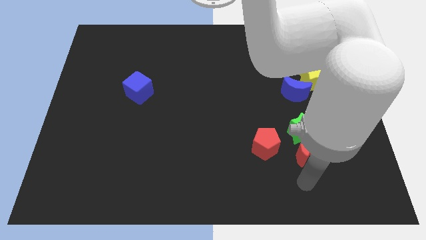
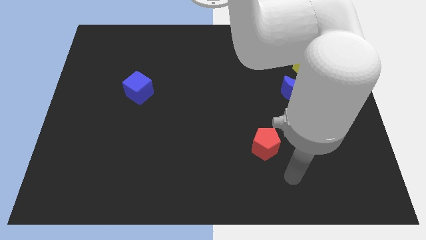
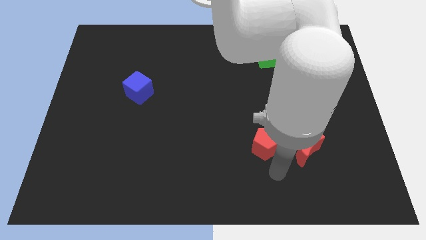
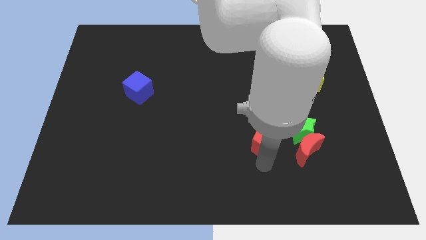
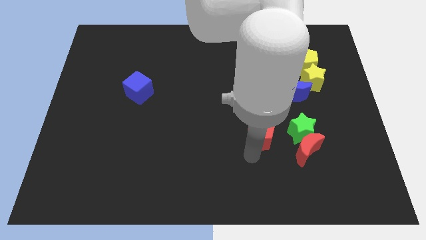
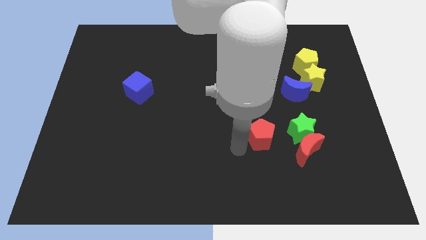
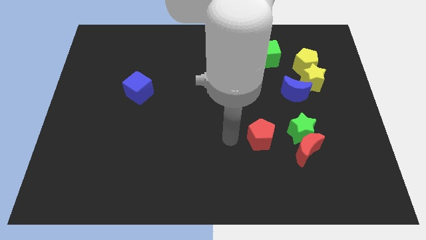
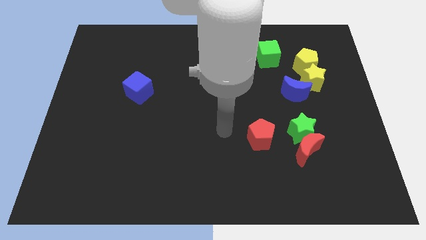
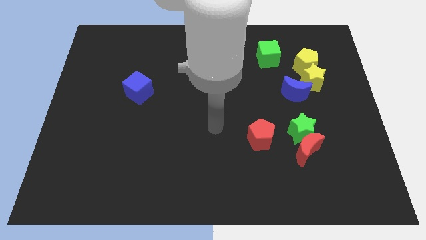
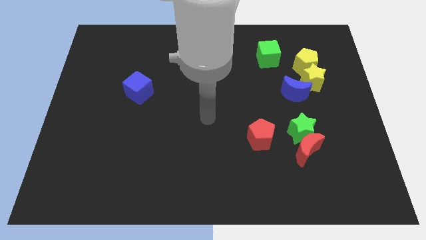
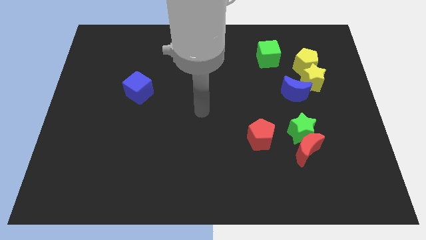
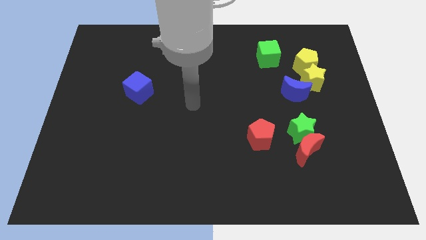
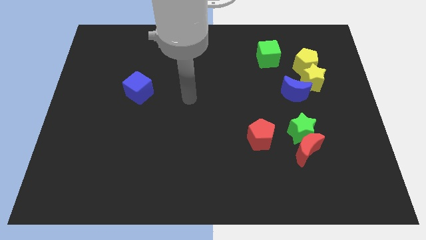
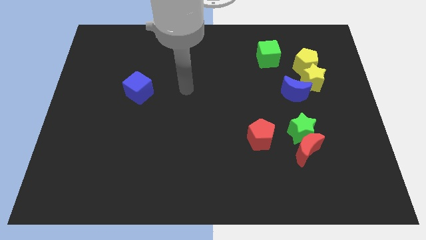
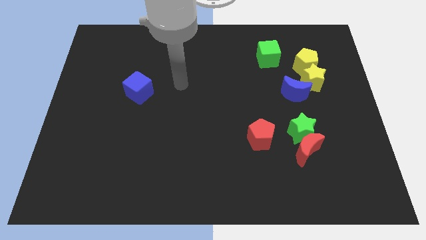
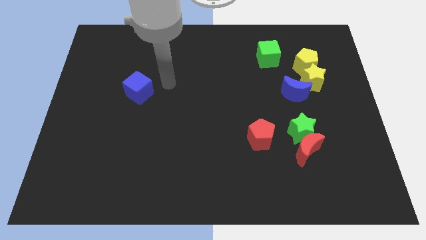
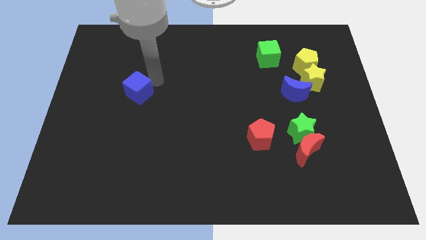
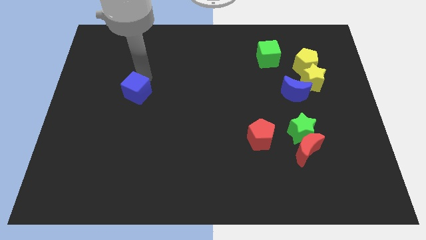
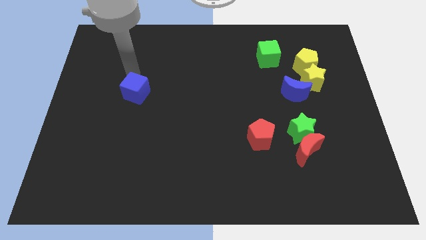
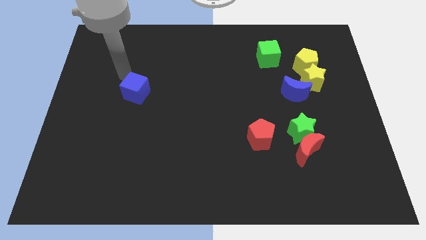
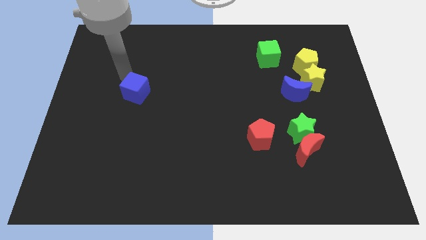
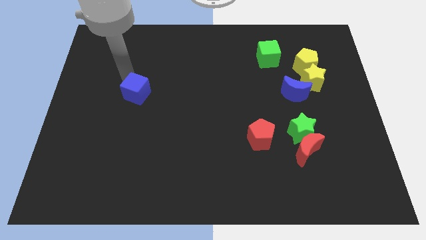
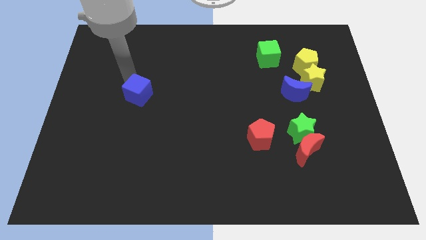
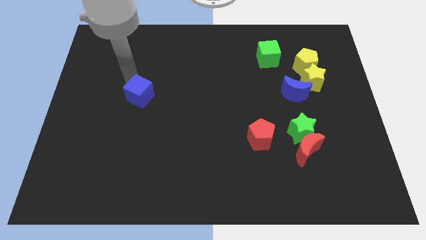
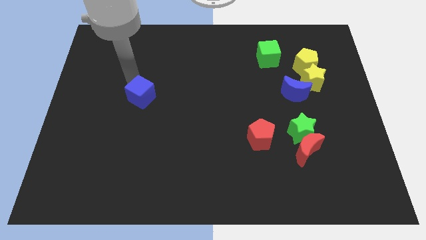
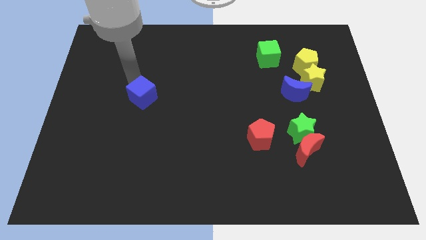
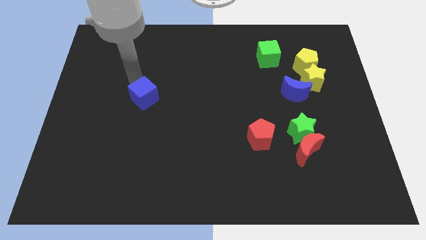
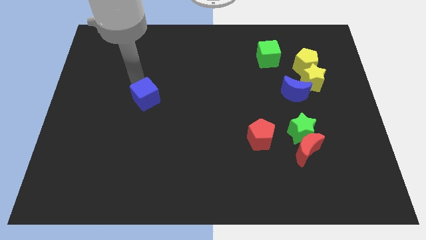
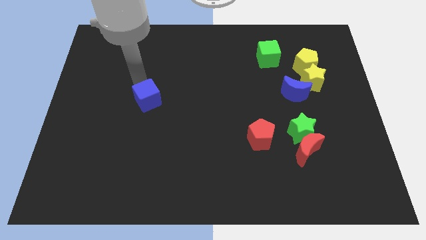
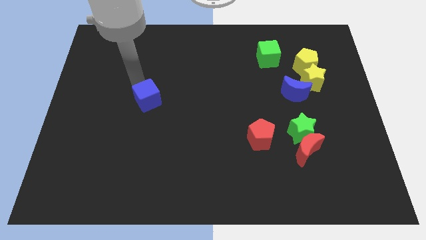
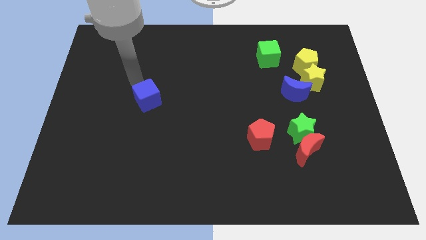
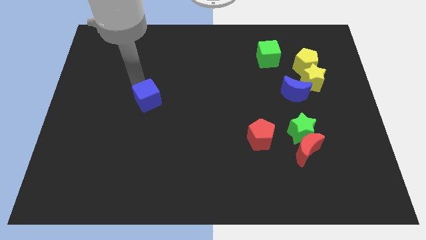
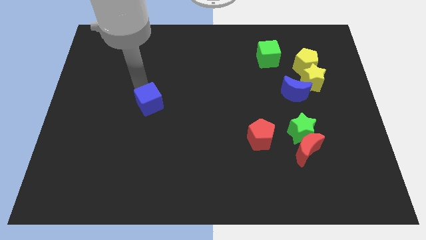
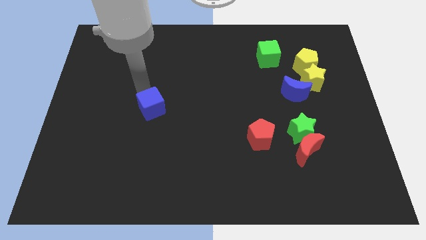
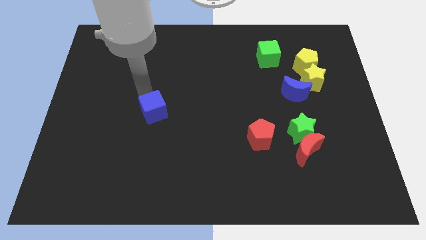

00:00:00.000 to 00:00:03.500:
slightly slide the blue cube downwards and to the right

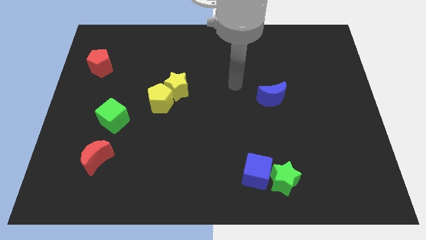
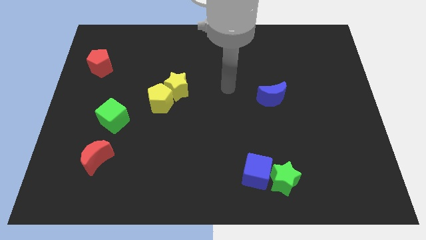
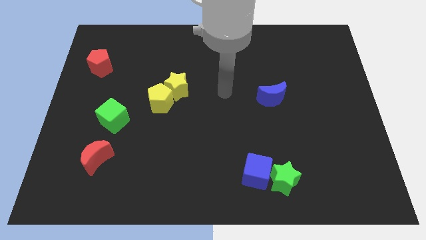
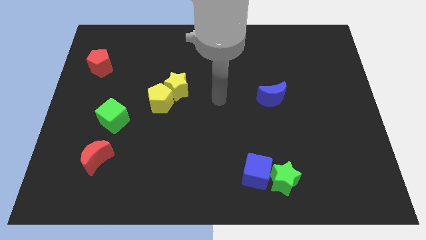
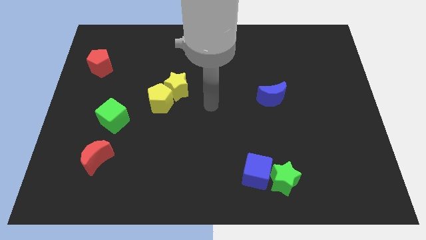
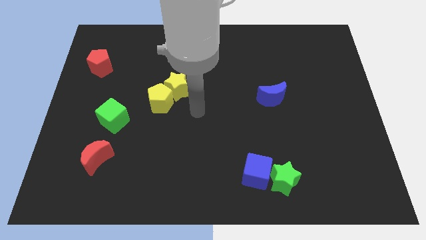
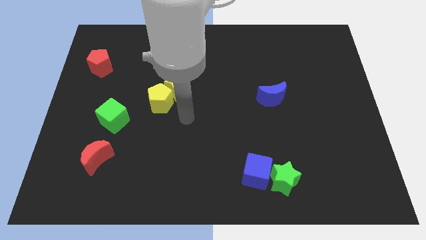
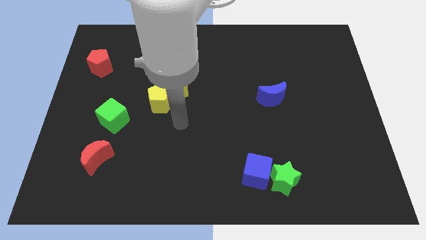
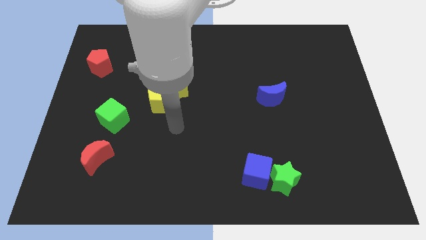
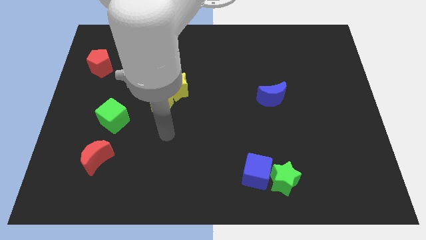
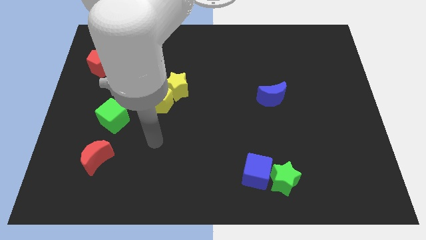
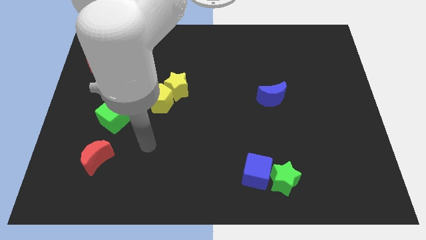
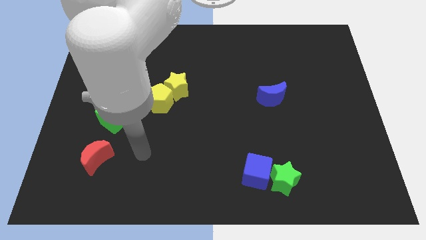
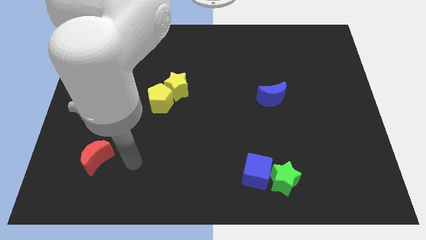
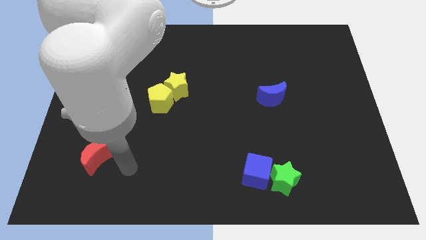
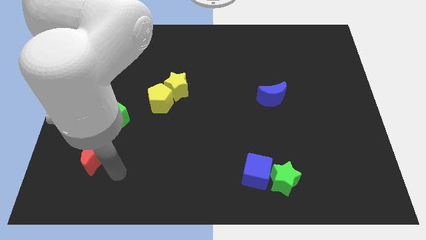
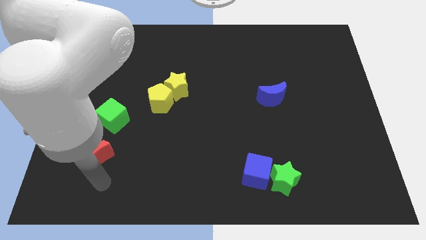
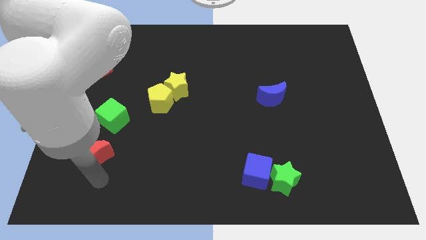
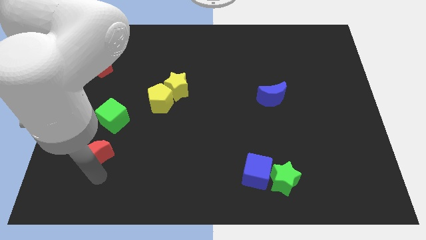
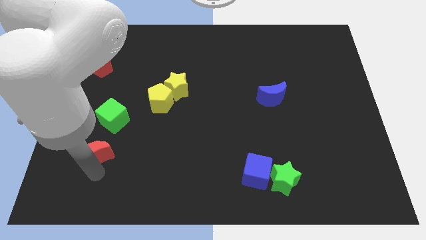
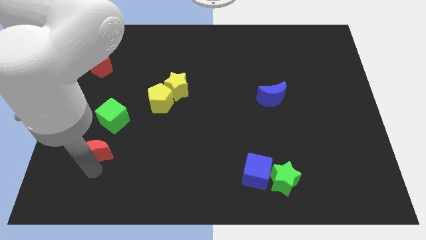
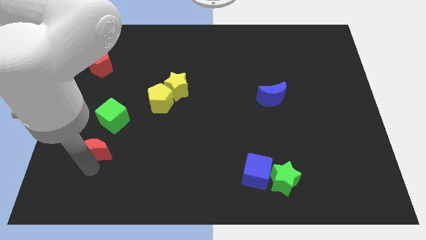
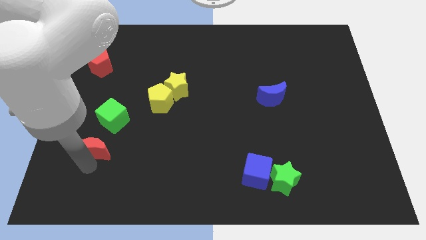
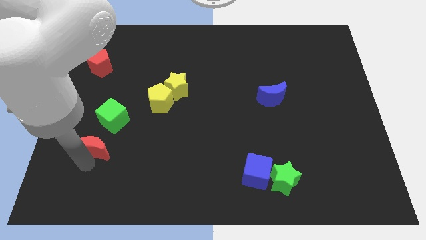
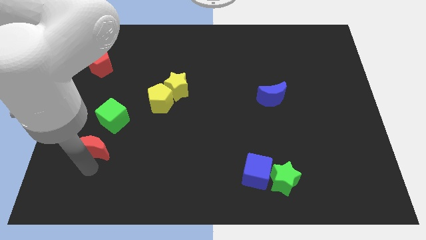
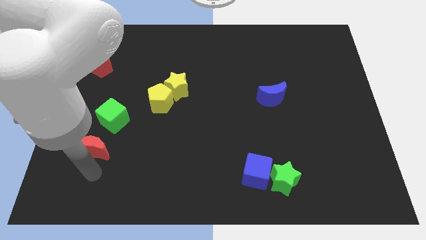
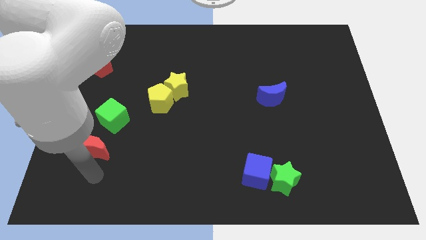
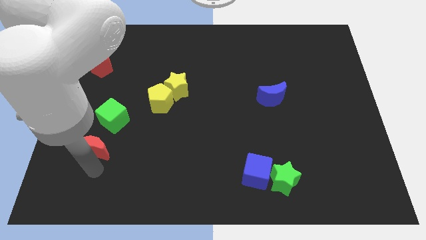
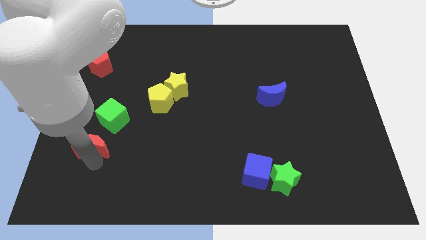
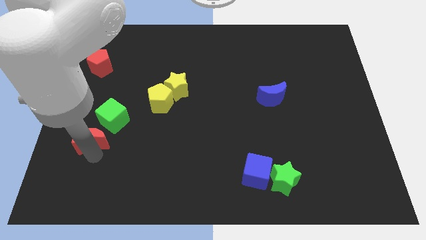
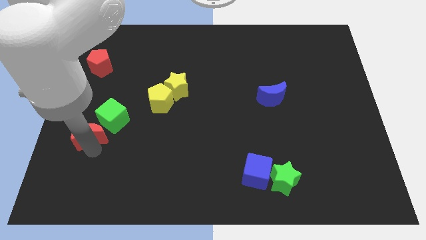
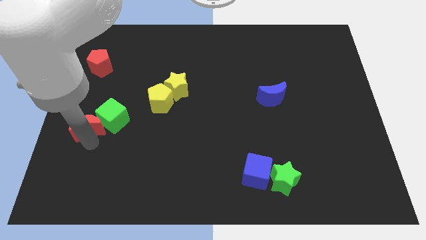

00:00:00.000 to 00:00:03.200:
move the red moon upwards somewhat

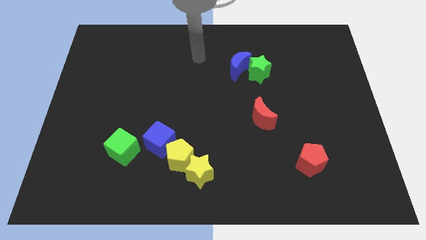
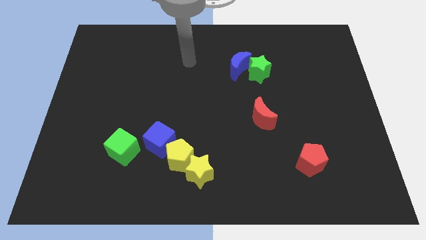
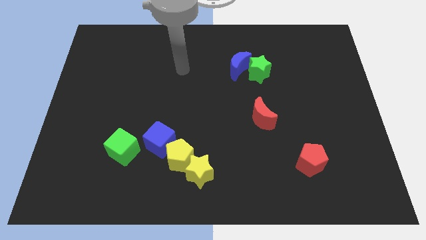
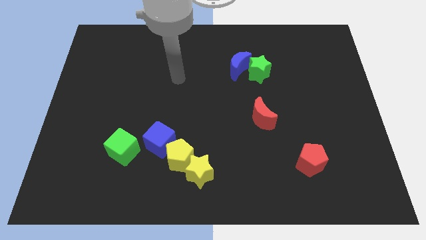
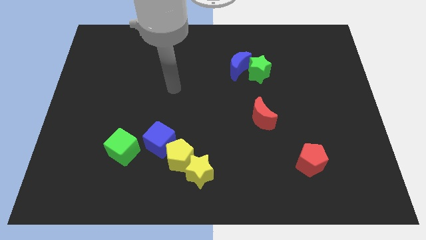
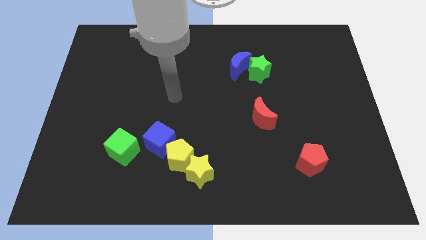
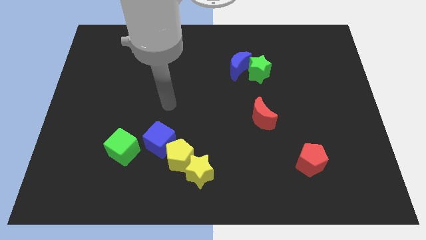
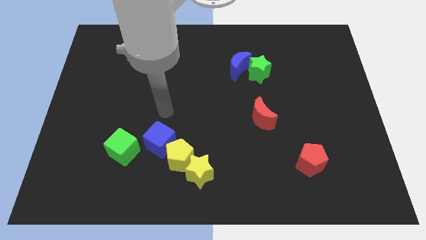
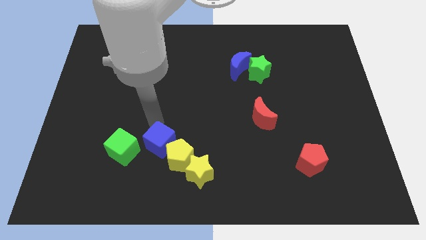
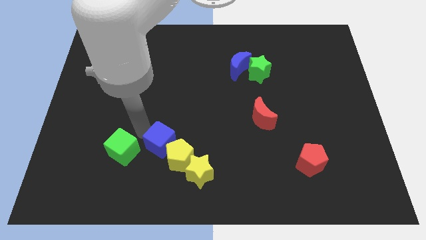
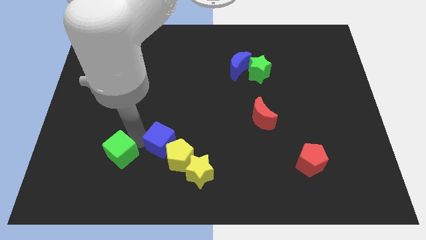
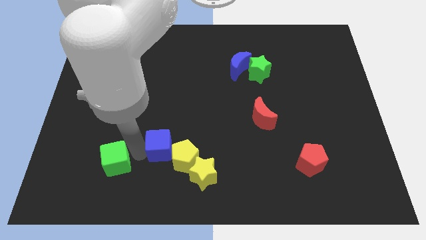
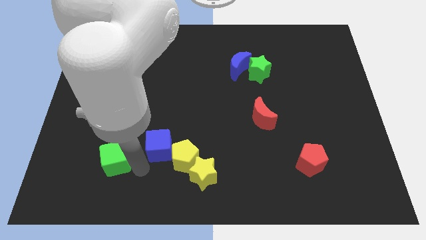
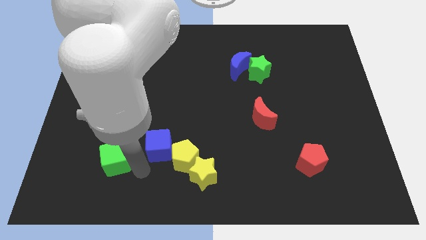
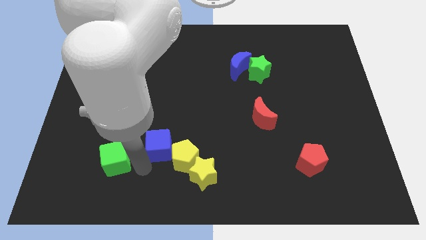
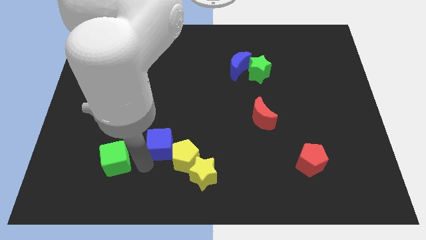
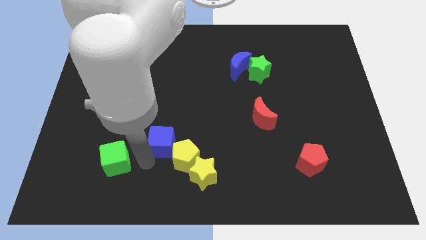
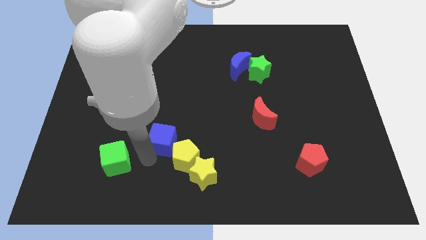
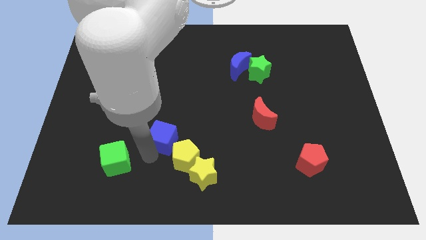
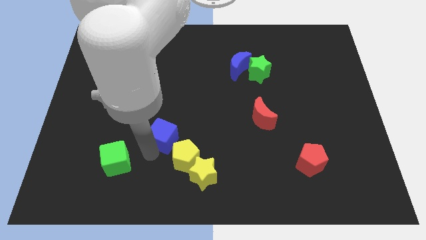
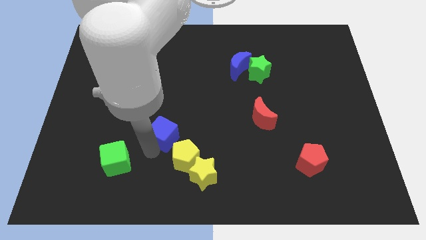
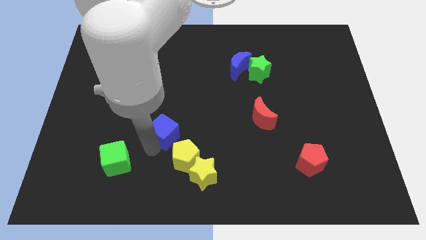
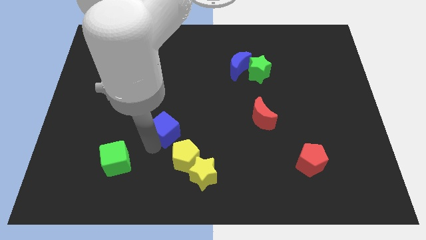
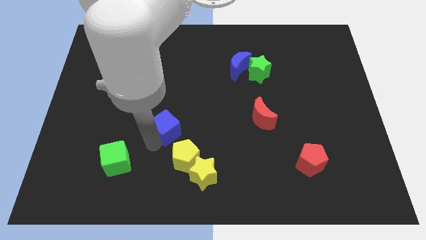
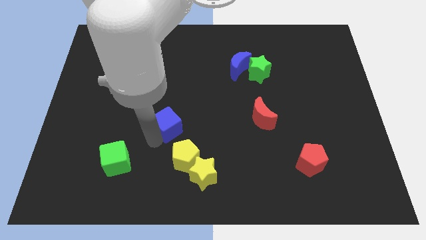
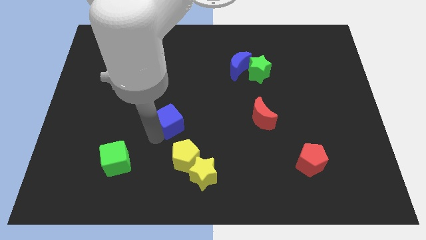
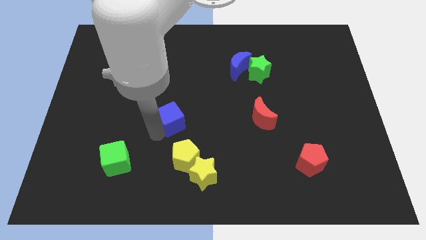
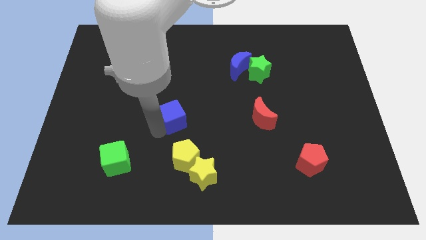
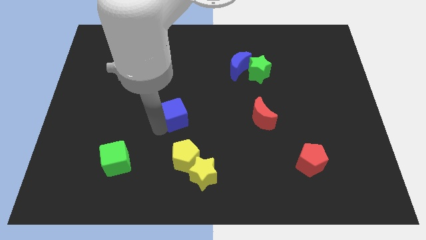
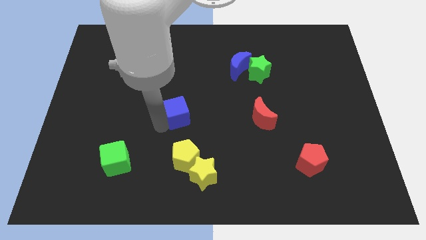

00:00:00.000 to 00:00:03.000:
push the blue cube up and then to the right a little bit
